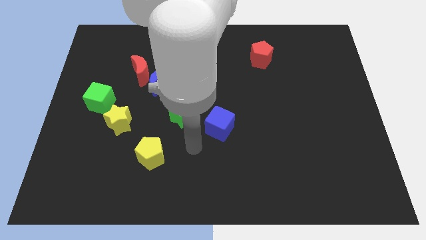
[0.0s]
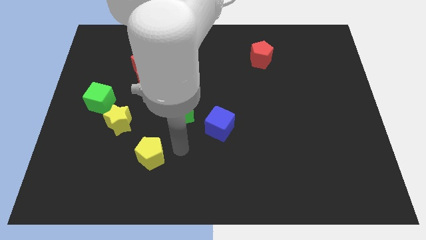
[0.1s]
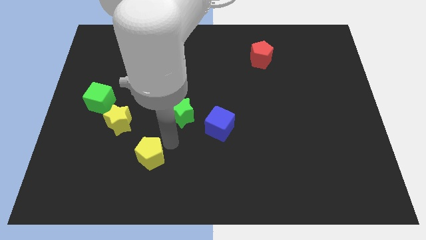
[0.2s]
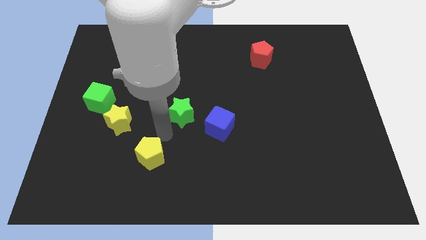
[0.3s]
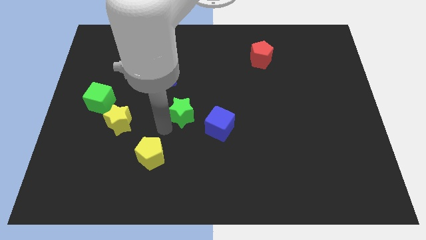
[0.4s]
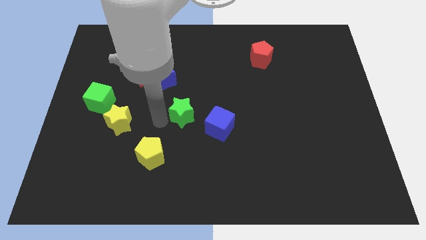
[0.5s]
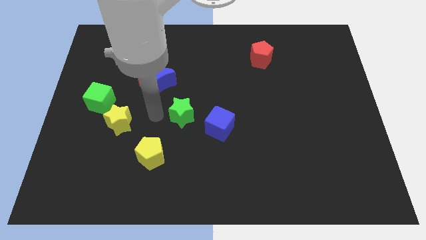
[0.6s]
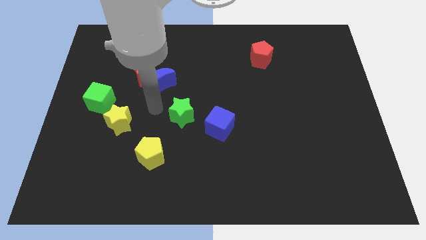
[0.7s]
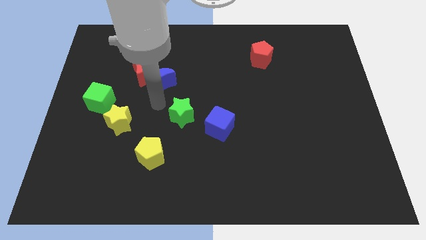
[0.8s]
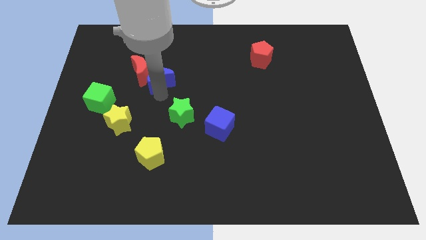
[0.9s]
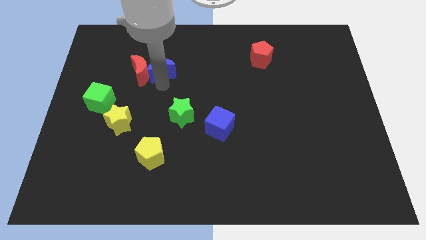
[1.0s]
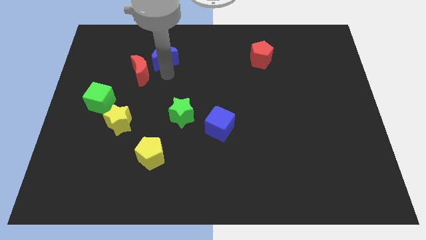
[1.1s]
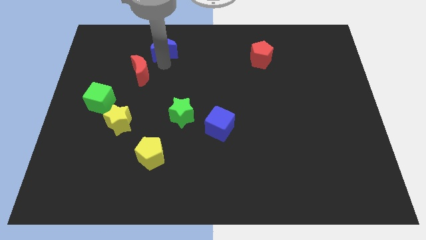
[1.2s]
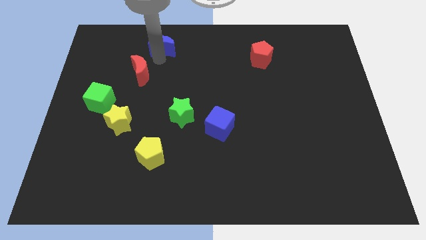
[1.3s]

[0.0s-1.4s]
separate the red moon from the blue moon

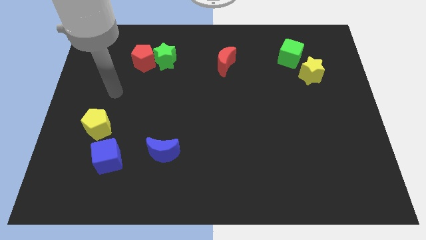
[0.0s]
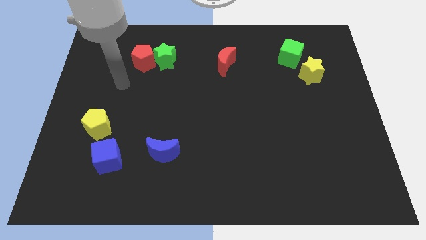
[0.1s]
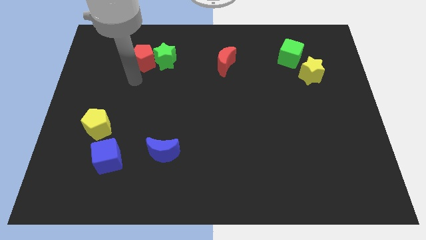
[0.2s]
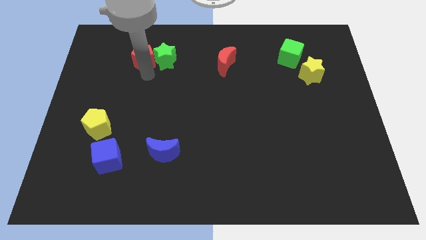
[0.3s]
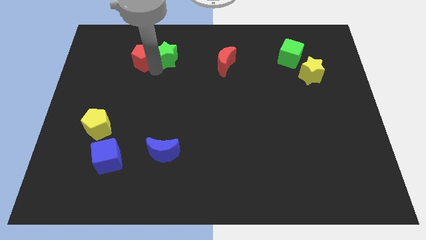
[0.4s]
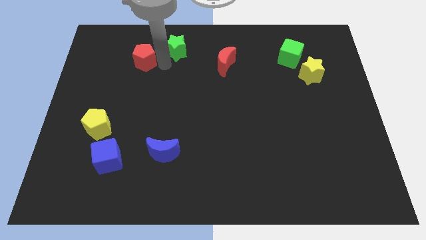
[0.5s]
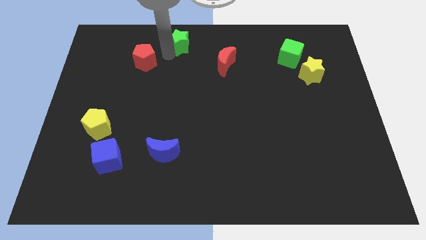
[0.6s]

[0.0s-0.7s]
move the red pentagon away from the green star

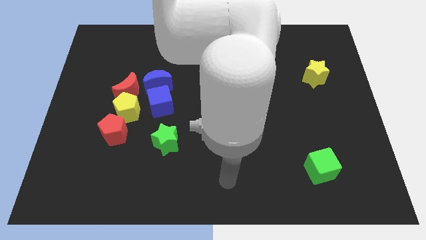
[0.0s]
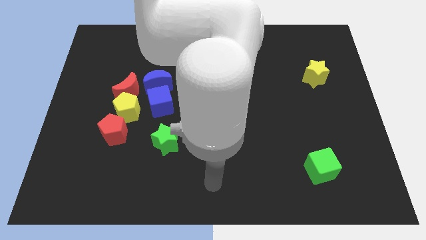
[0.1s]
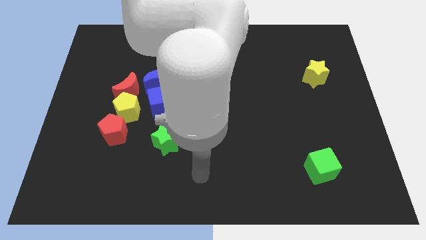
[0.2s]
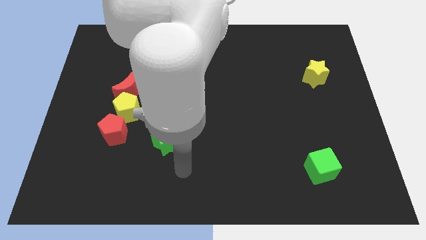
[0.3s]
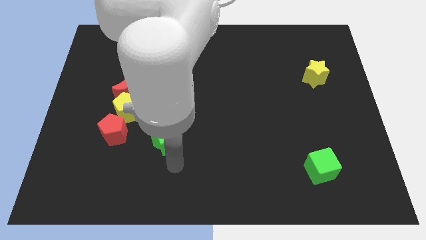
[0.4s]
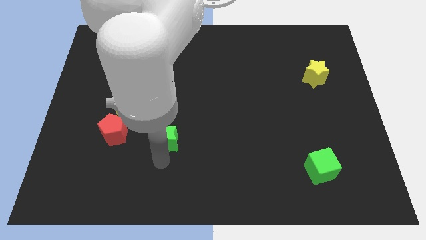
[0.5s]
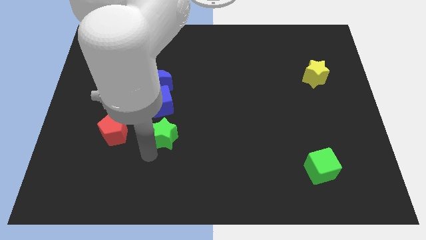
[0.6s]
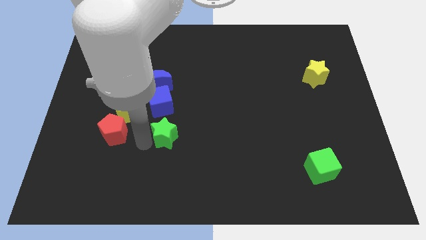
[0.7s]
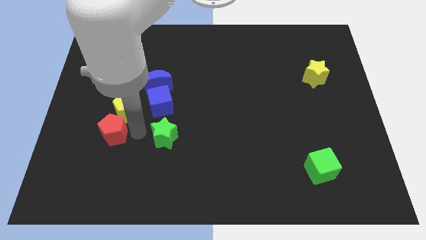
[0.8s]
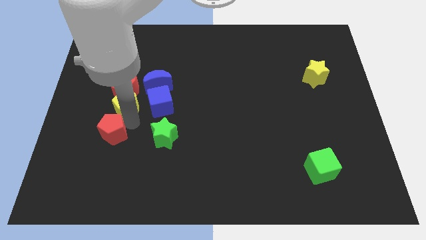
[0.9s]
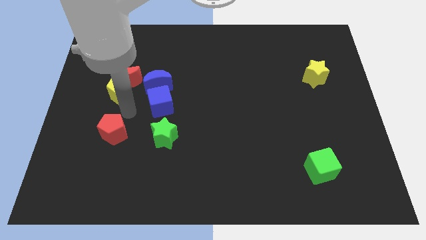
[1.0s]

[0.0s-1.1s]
separate the red pentagon from the yellow pentagon

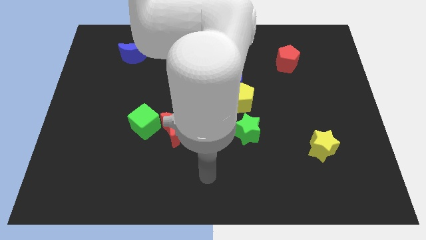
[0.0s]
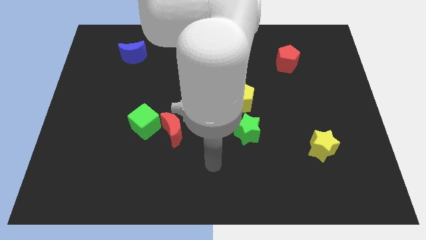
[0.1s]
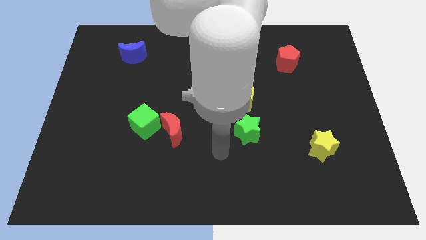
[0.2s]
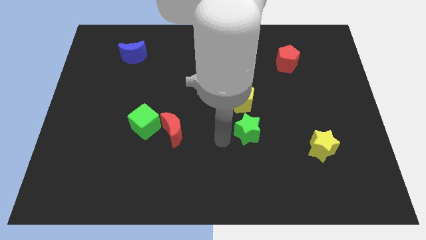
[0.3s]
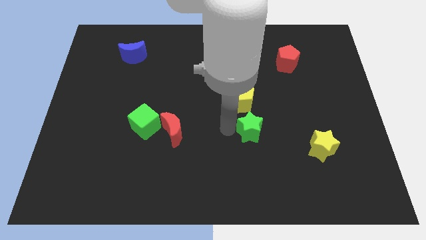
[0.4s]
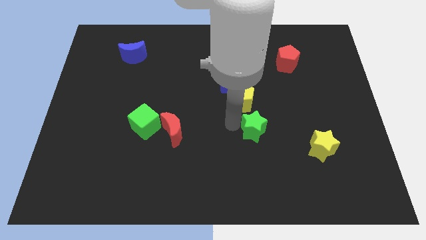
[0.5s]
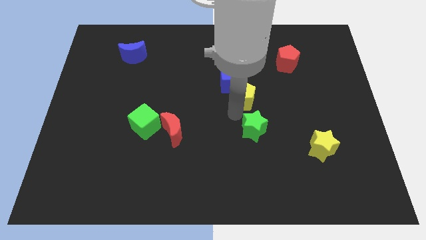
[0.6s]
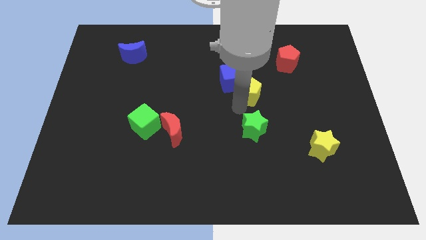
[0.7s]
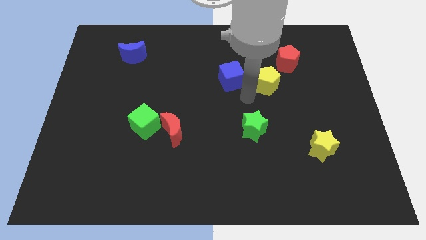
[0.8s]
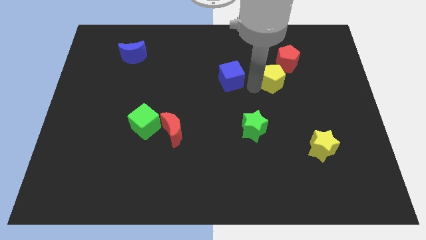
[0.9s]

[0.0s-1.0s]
pull the blue cube apart from the yellow pentagon

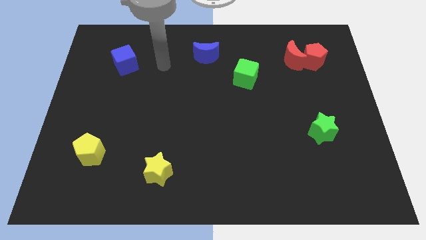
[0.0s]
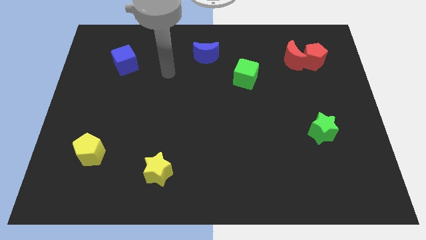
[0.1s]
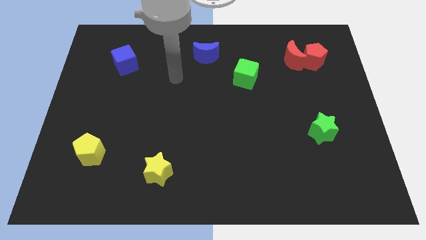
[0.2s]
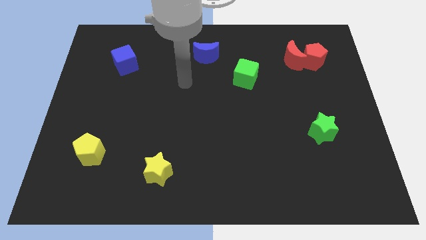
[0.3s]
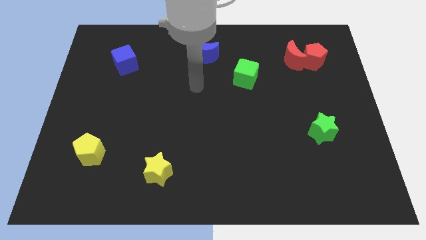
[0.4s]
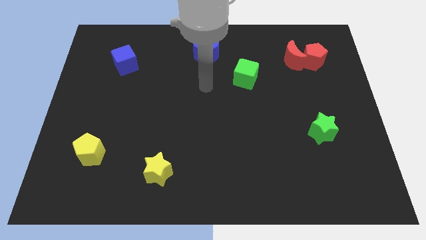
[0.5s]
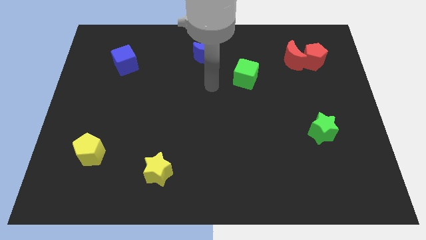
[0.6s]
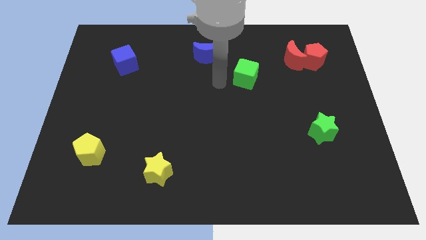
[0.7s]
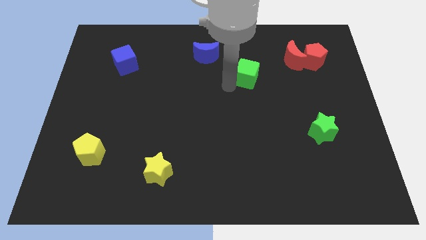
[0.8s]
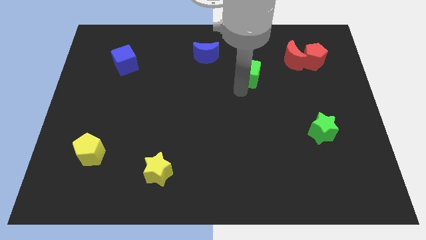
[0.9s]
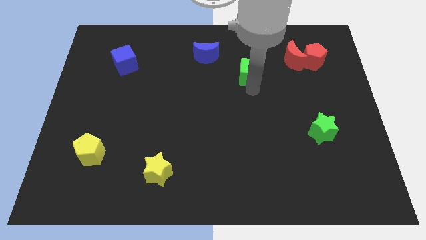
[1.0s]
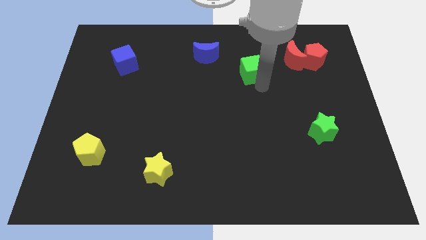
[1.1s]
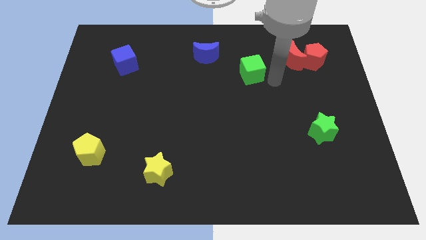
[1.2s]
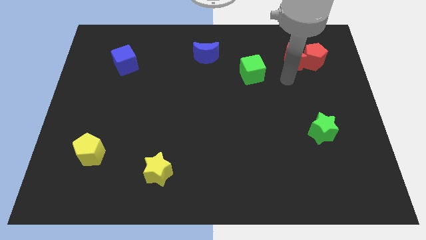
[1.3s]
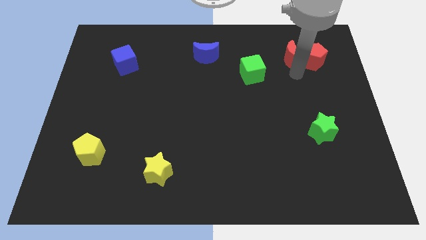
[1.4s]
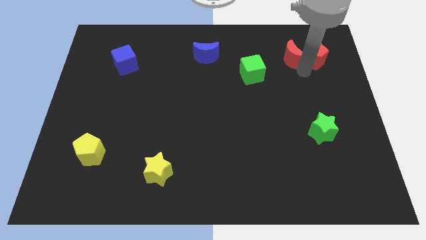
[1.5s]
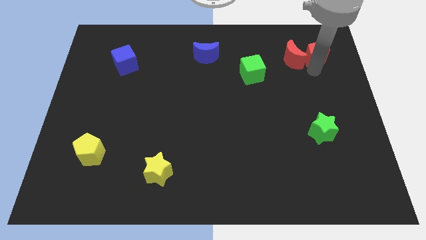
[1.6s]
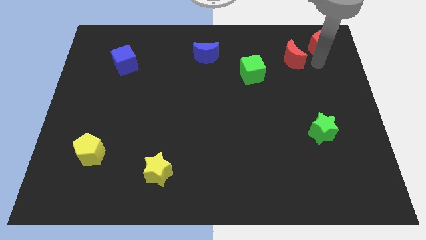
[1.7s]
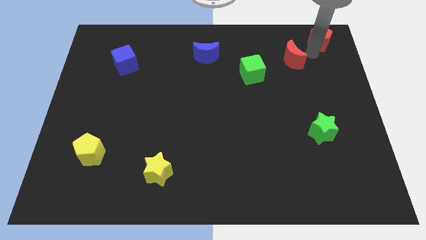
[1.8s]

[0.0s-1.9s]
separate the red moon from the red pentagon

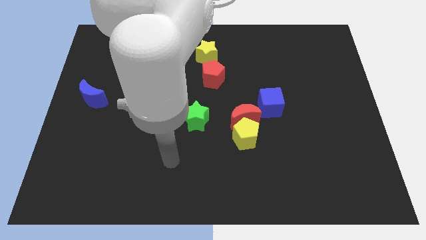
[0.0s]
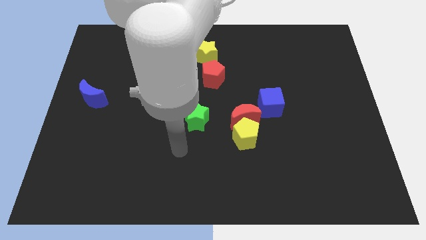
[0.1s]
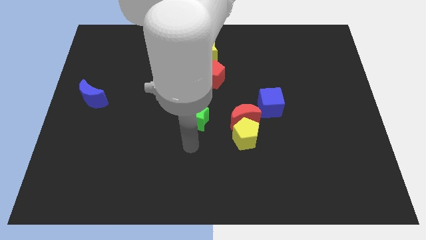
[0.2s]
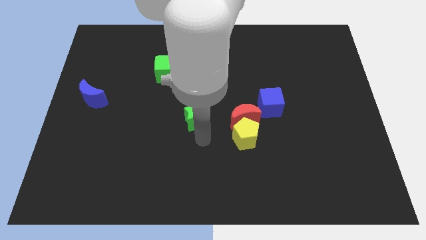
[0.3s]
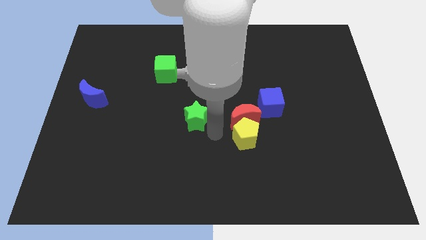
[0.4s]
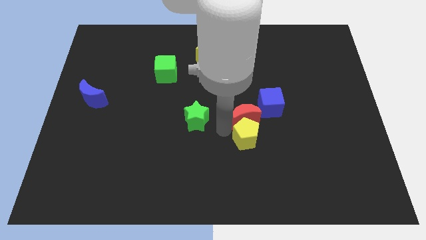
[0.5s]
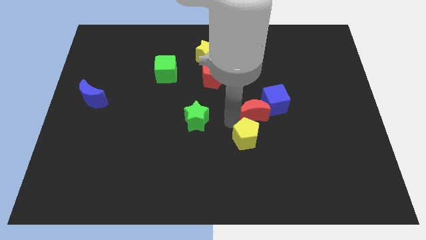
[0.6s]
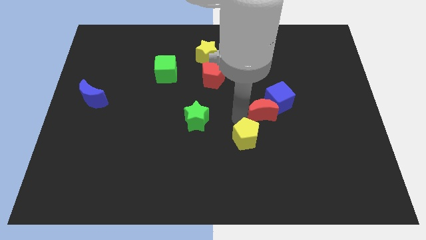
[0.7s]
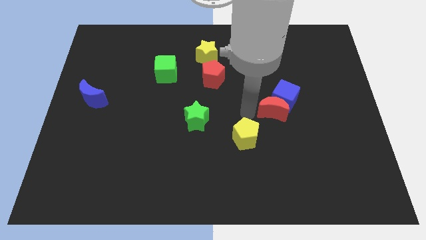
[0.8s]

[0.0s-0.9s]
move the yellow pentagon away from the red moon

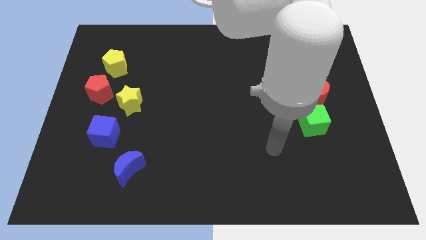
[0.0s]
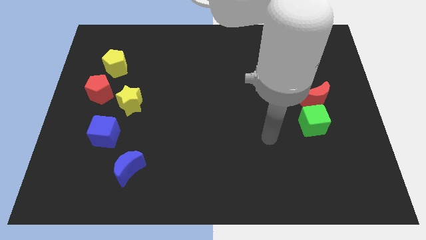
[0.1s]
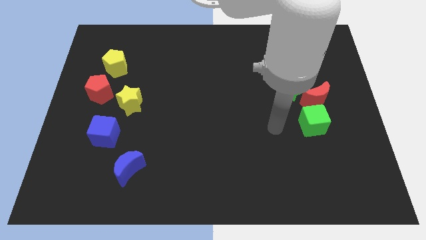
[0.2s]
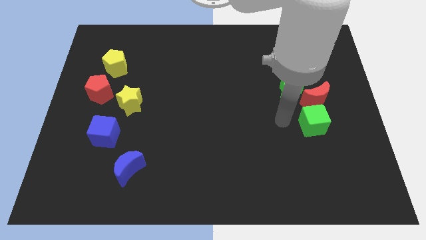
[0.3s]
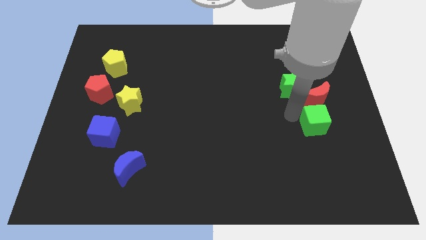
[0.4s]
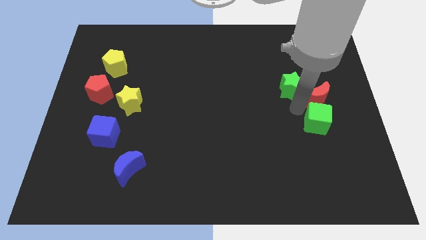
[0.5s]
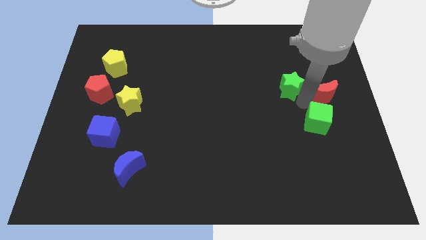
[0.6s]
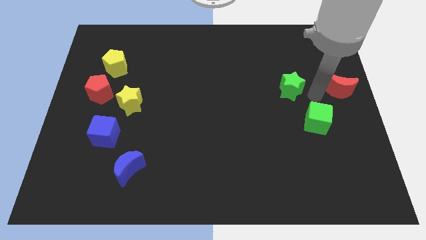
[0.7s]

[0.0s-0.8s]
separate the green star from the red moon

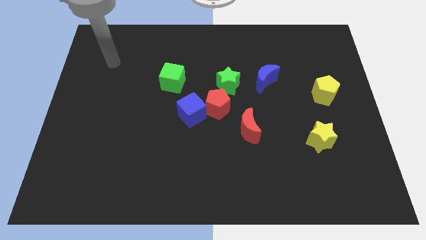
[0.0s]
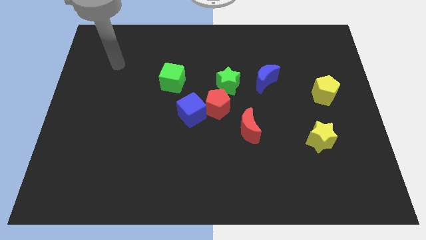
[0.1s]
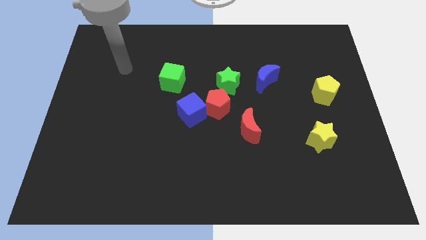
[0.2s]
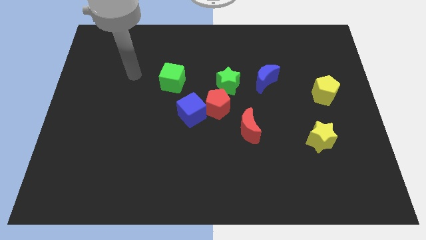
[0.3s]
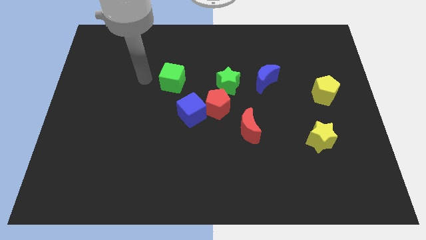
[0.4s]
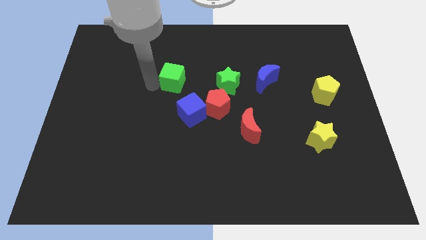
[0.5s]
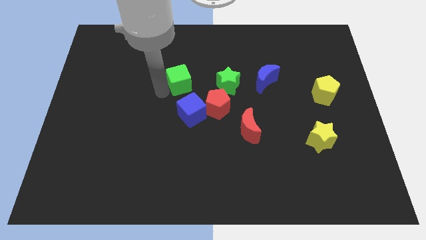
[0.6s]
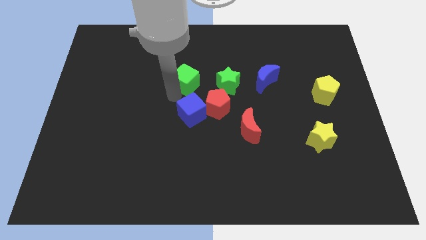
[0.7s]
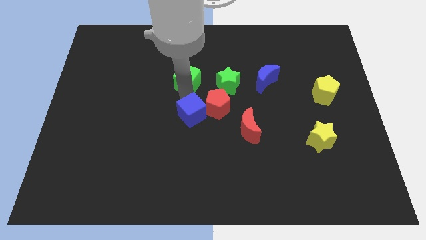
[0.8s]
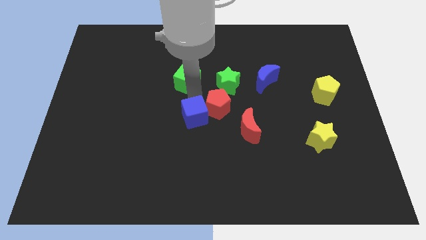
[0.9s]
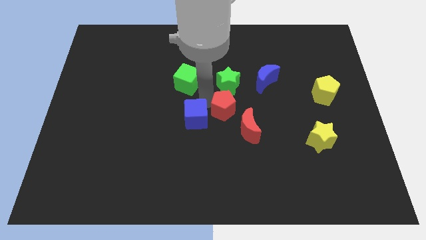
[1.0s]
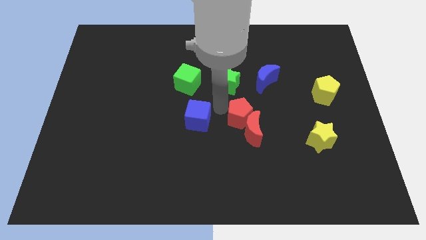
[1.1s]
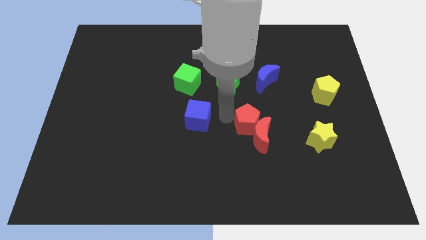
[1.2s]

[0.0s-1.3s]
separate the blue cube from the red pentagon

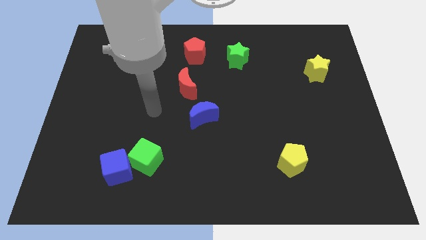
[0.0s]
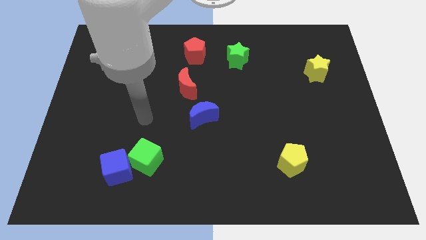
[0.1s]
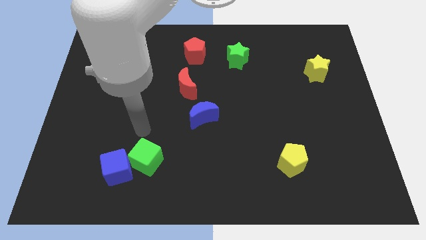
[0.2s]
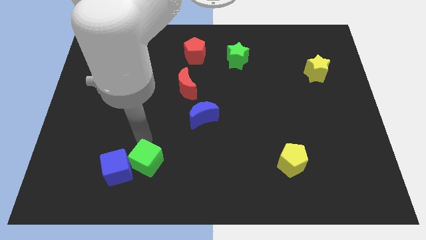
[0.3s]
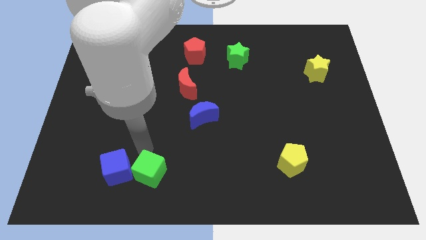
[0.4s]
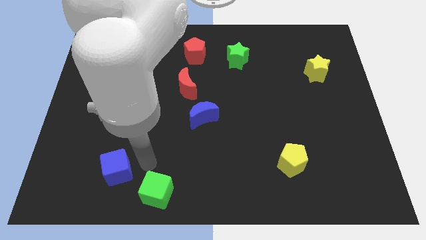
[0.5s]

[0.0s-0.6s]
move the blue cube away from the green cube
